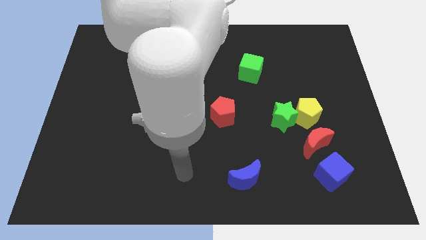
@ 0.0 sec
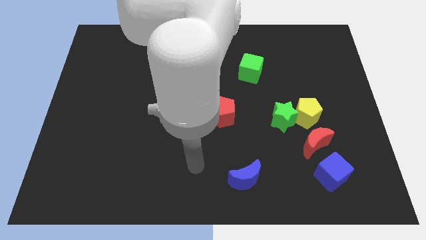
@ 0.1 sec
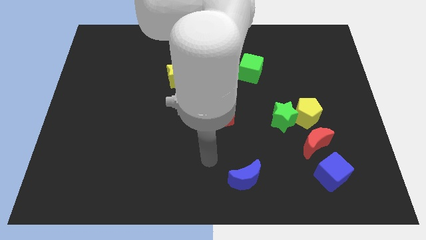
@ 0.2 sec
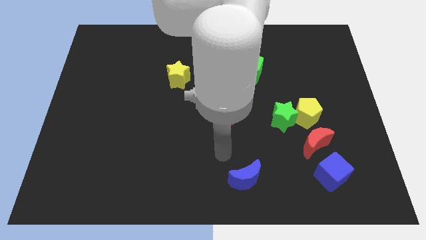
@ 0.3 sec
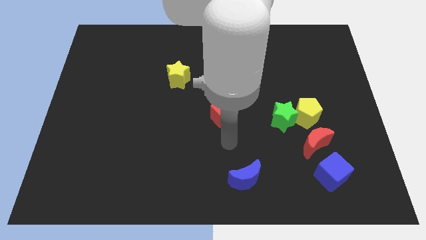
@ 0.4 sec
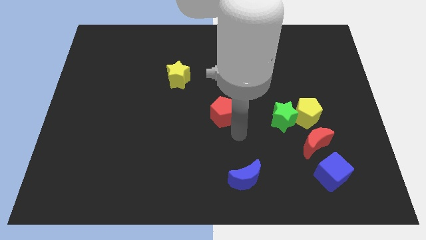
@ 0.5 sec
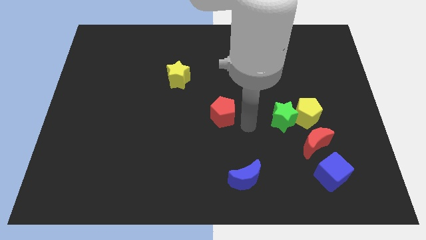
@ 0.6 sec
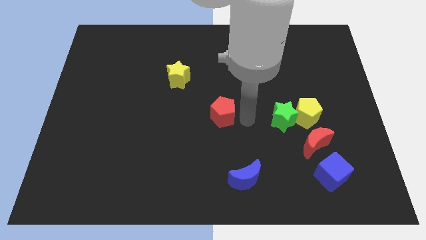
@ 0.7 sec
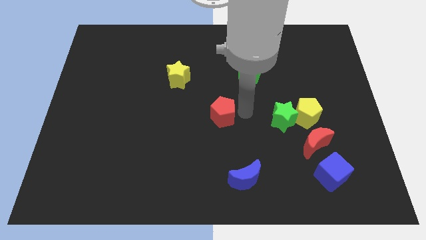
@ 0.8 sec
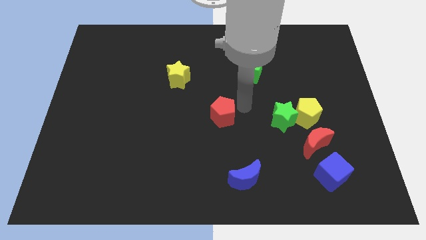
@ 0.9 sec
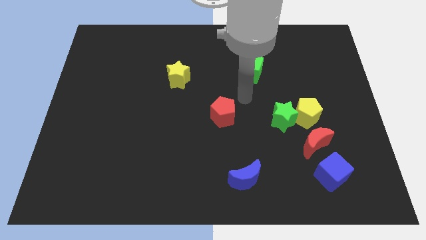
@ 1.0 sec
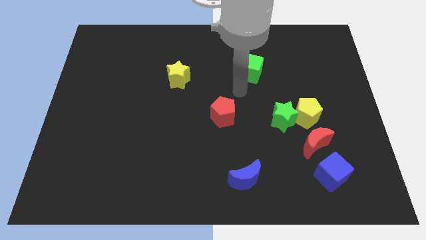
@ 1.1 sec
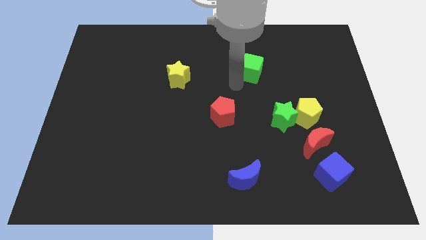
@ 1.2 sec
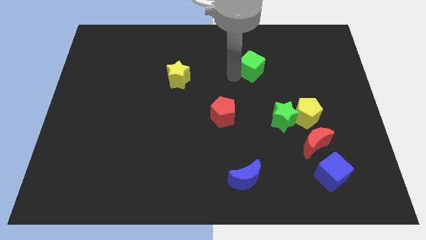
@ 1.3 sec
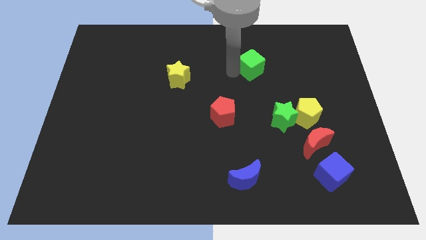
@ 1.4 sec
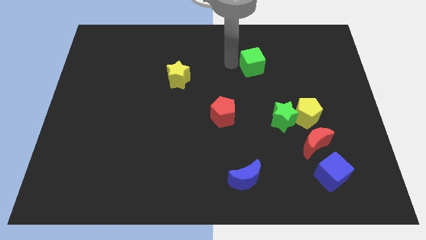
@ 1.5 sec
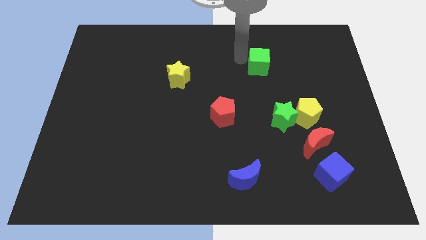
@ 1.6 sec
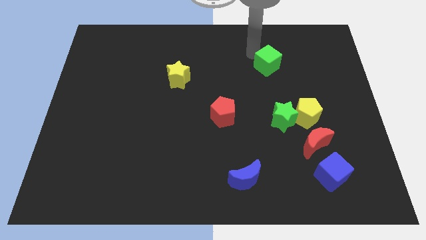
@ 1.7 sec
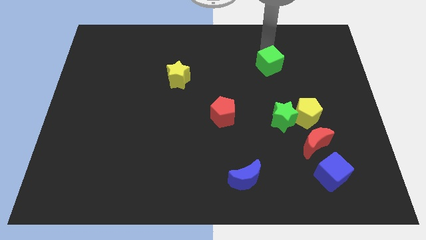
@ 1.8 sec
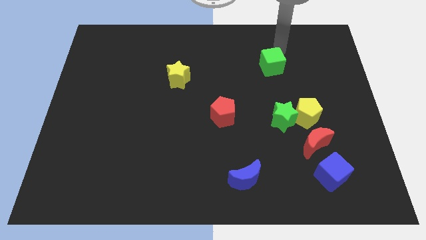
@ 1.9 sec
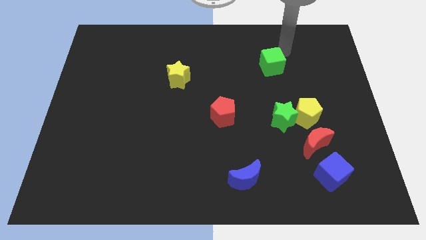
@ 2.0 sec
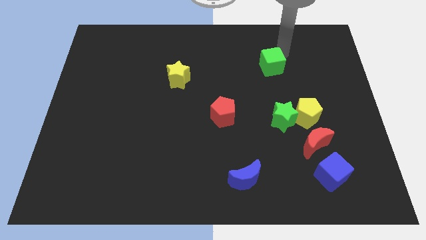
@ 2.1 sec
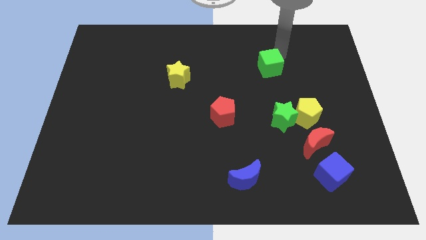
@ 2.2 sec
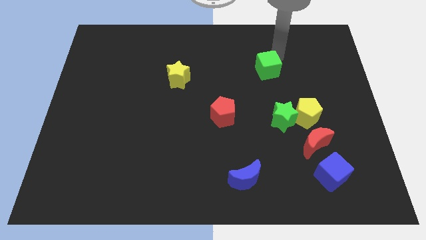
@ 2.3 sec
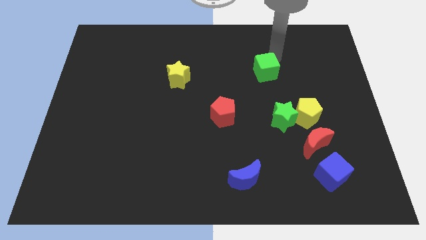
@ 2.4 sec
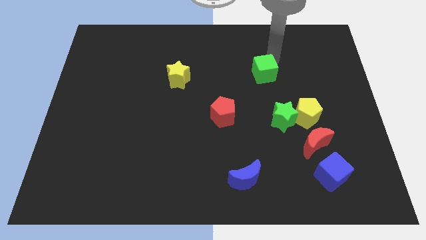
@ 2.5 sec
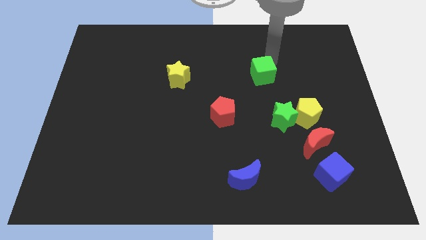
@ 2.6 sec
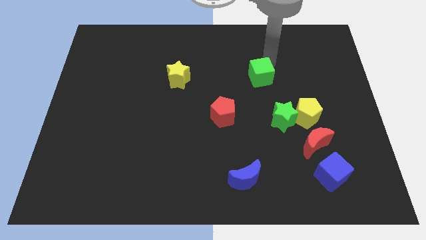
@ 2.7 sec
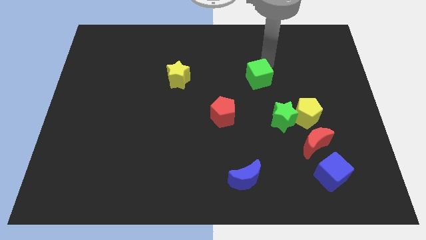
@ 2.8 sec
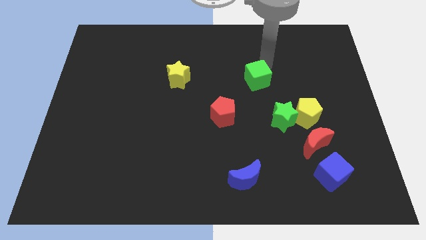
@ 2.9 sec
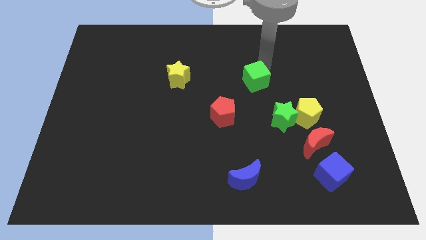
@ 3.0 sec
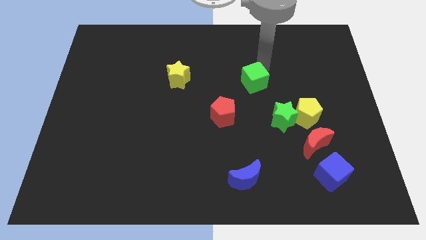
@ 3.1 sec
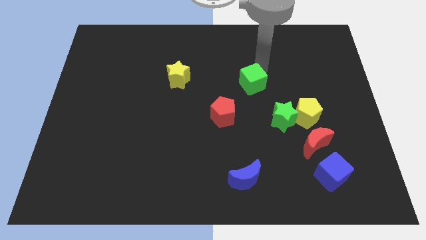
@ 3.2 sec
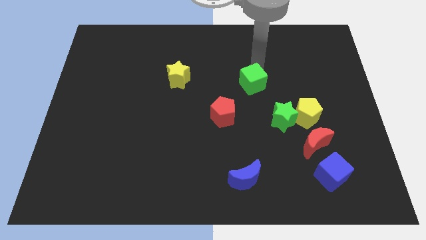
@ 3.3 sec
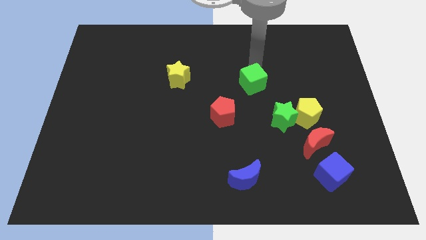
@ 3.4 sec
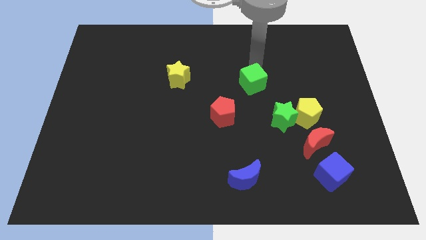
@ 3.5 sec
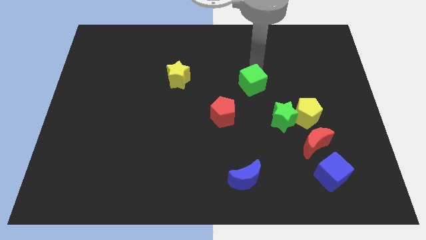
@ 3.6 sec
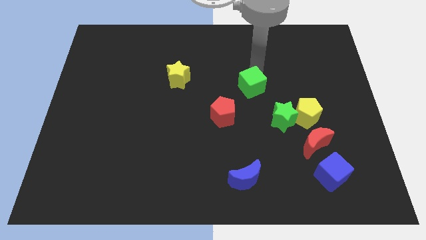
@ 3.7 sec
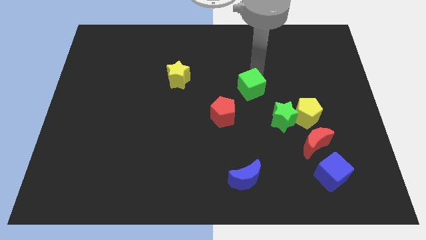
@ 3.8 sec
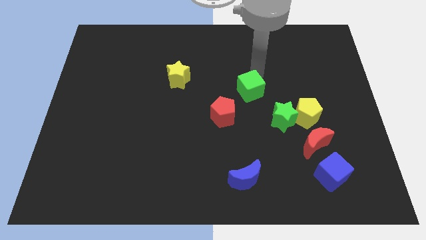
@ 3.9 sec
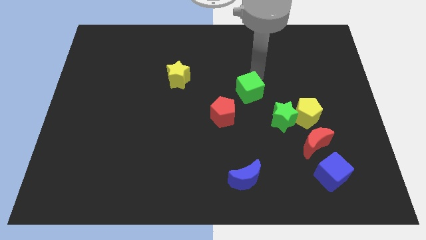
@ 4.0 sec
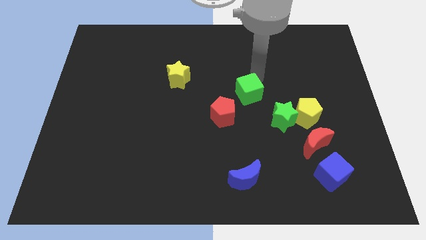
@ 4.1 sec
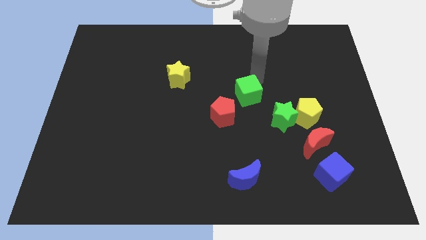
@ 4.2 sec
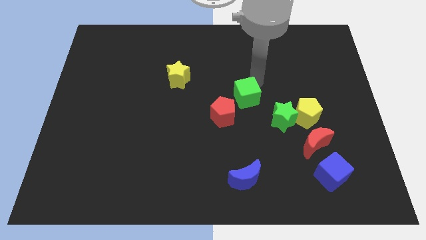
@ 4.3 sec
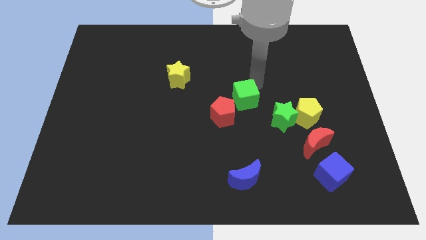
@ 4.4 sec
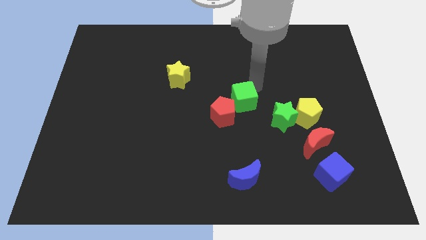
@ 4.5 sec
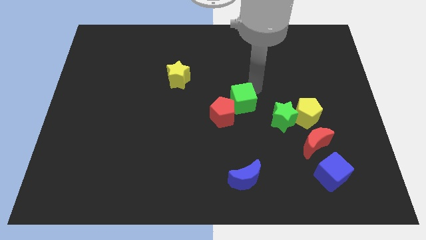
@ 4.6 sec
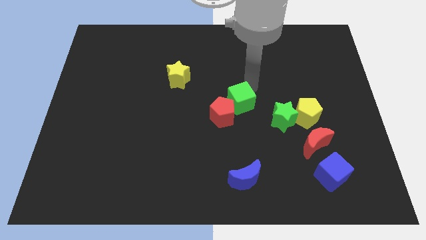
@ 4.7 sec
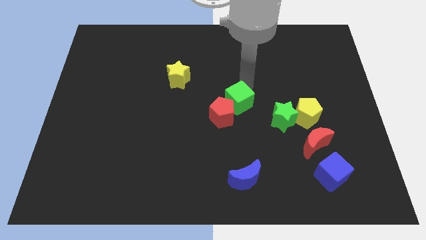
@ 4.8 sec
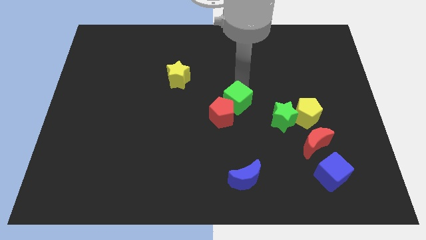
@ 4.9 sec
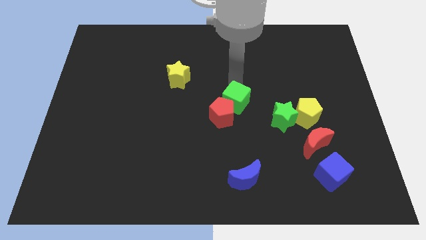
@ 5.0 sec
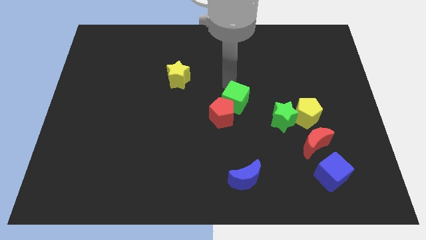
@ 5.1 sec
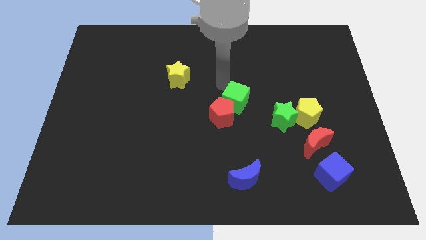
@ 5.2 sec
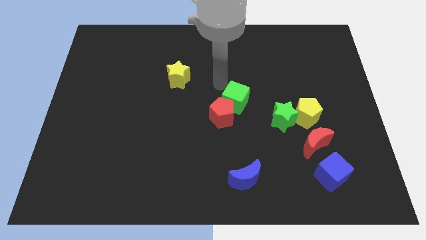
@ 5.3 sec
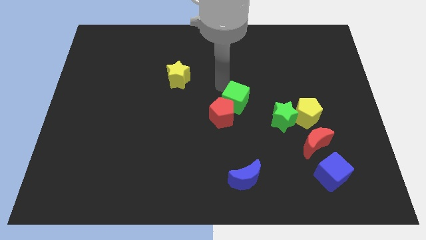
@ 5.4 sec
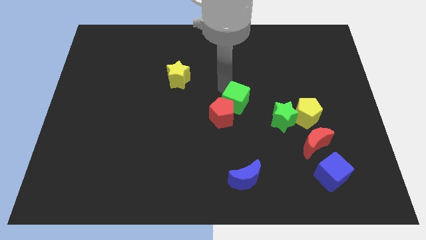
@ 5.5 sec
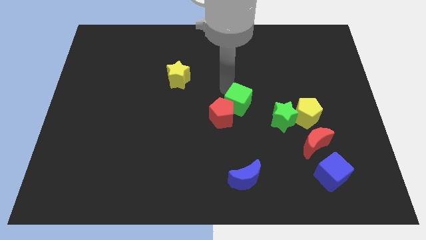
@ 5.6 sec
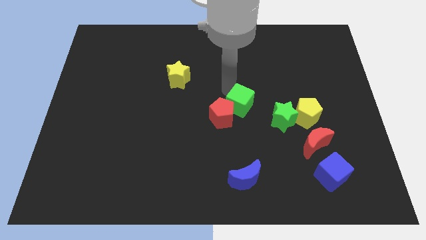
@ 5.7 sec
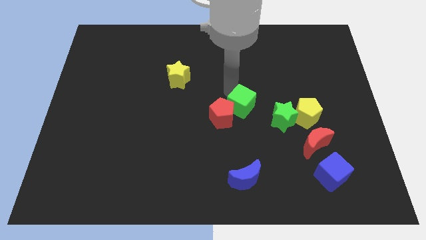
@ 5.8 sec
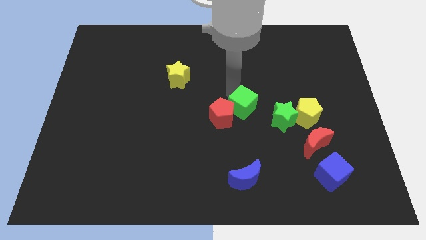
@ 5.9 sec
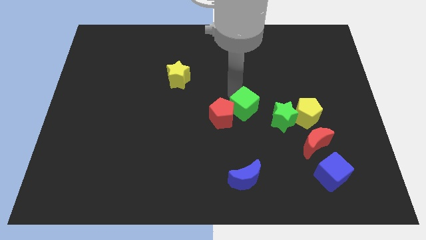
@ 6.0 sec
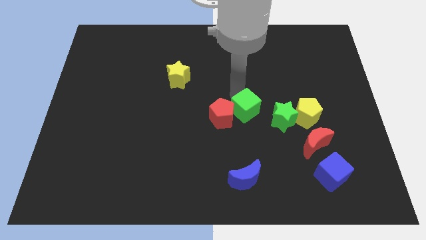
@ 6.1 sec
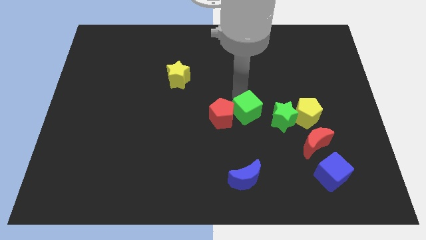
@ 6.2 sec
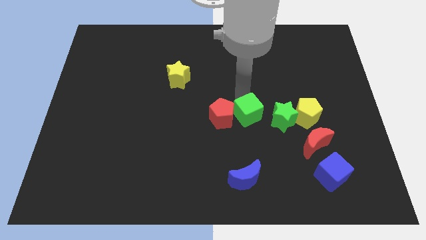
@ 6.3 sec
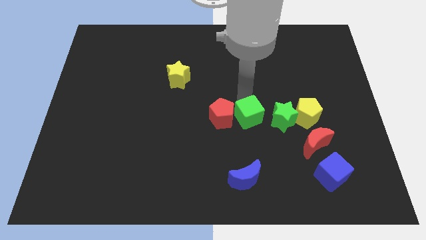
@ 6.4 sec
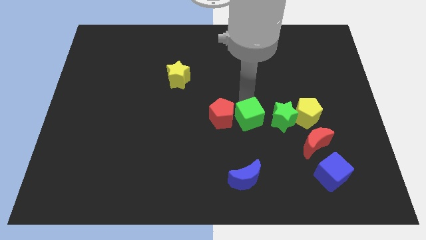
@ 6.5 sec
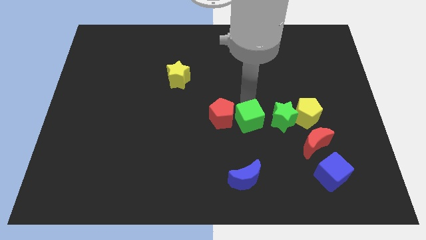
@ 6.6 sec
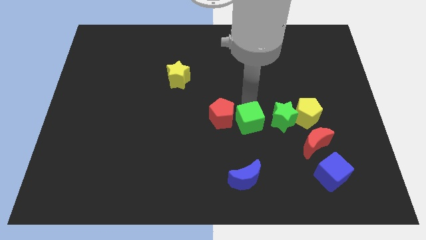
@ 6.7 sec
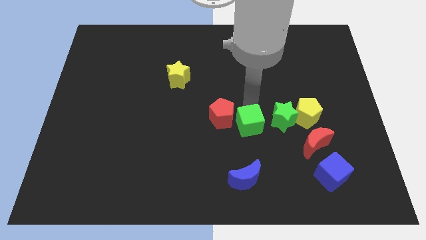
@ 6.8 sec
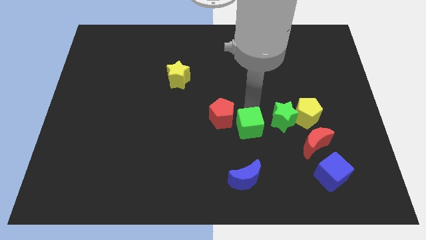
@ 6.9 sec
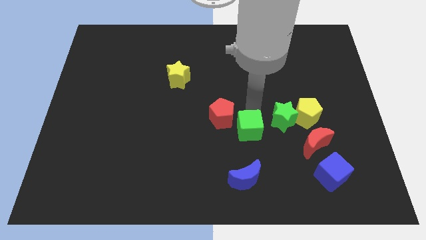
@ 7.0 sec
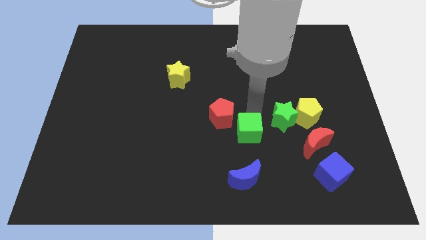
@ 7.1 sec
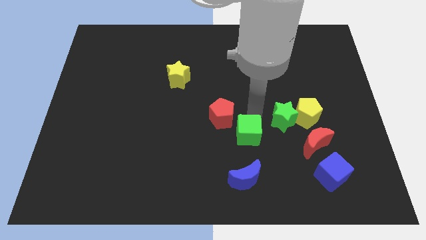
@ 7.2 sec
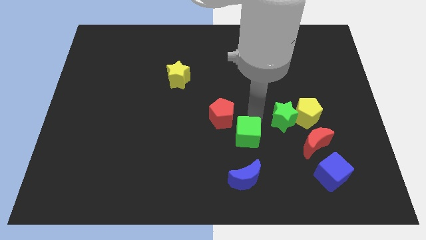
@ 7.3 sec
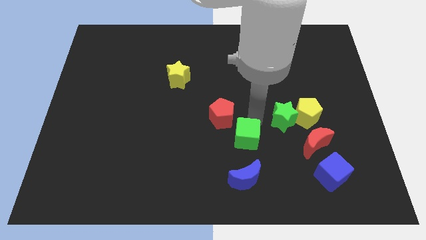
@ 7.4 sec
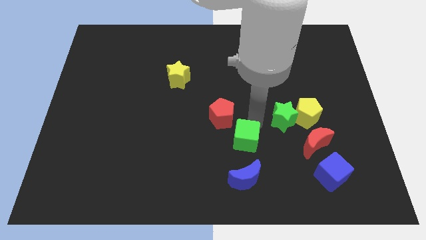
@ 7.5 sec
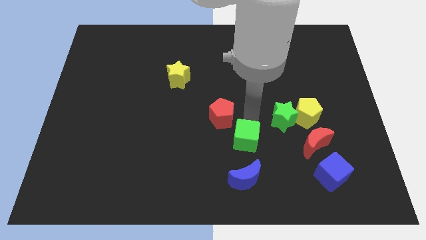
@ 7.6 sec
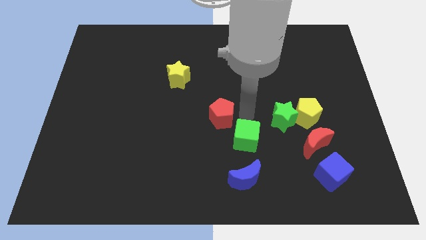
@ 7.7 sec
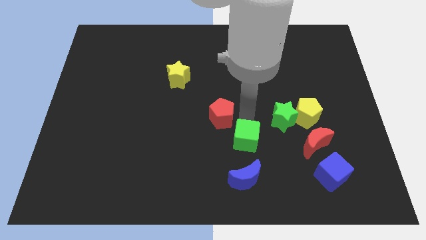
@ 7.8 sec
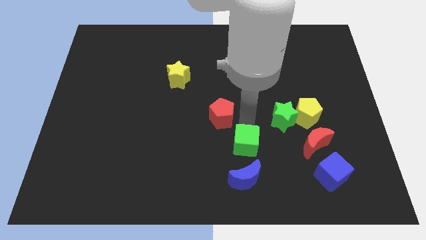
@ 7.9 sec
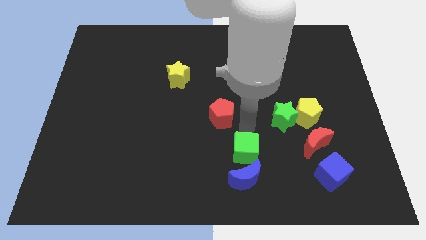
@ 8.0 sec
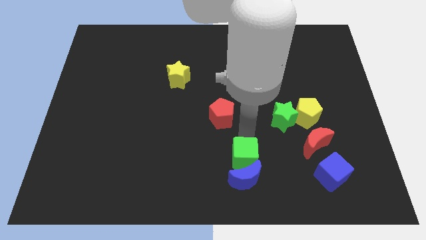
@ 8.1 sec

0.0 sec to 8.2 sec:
push the green cube to the blue moon
